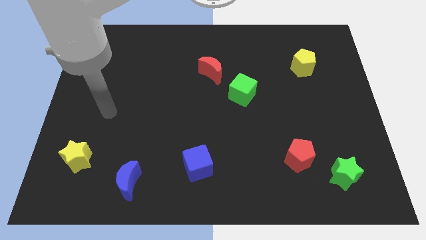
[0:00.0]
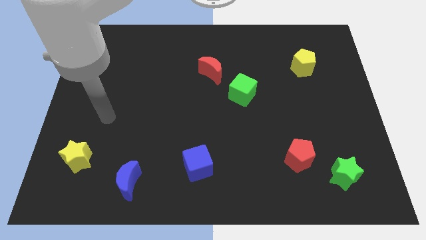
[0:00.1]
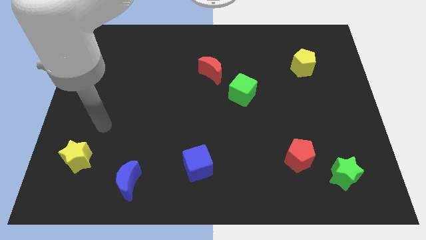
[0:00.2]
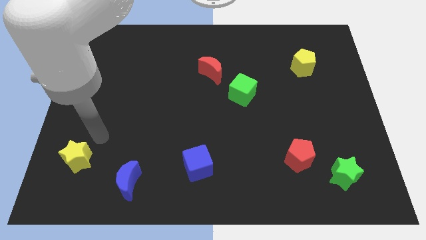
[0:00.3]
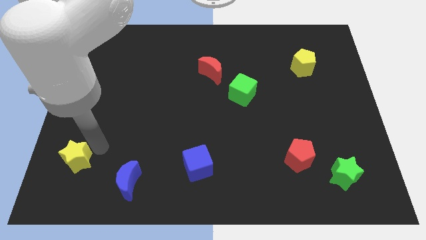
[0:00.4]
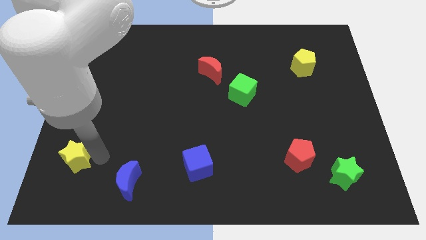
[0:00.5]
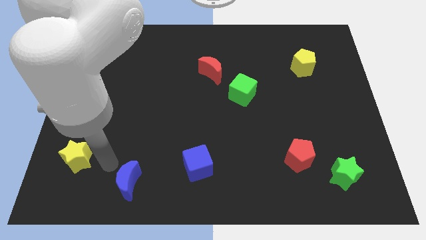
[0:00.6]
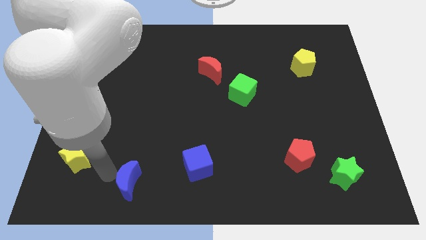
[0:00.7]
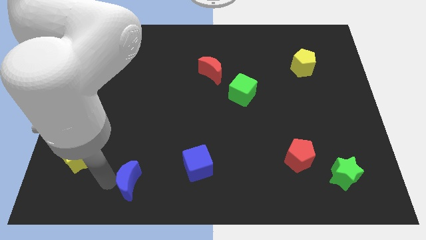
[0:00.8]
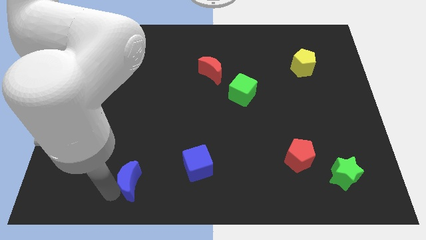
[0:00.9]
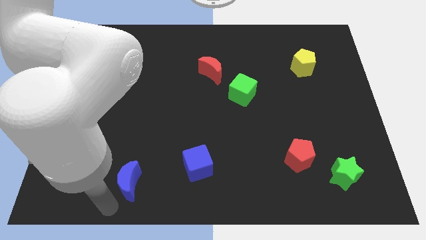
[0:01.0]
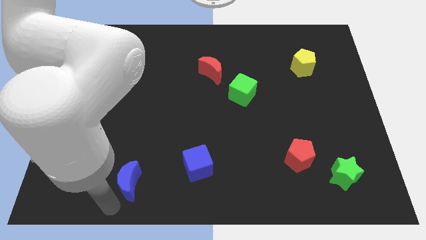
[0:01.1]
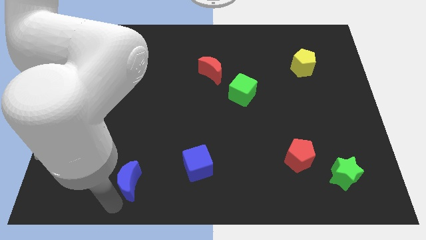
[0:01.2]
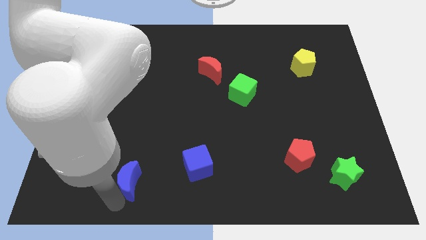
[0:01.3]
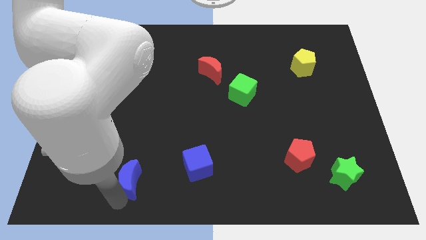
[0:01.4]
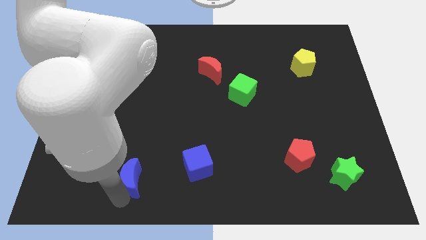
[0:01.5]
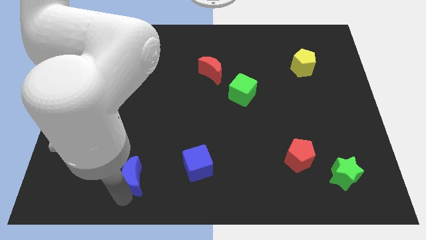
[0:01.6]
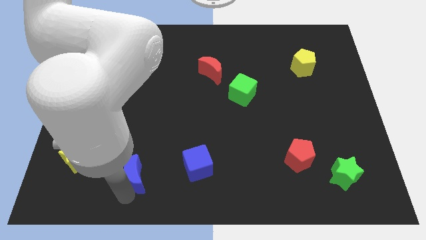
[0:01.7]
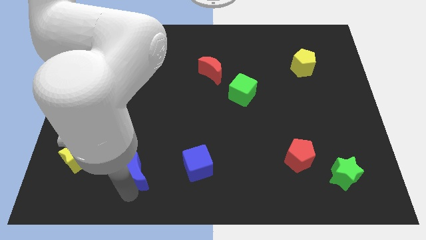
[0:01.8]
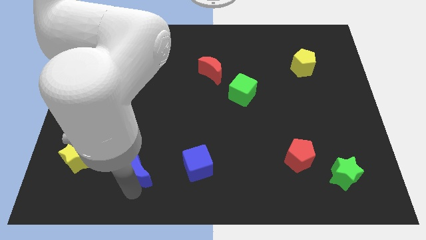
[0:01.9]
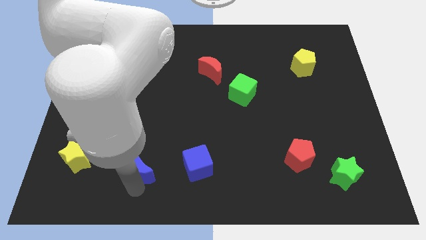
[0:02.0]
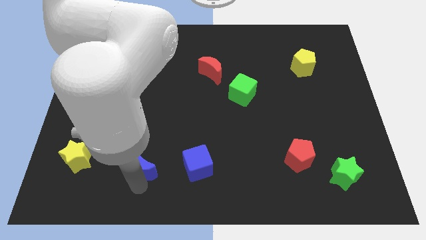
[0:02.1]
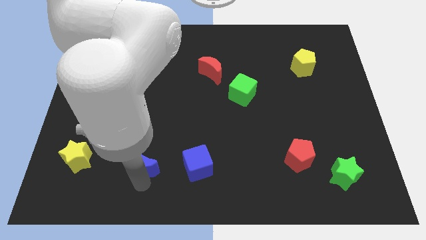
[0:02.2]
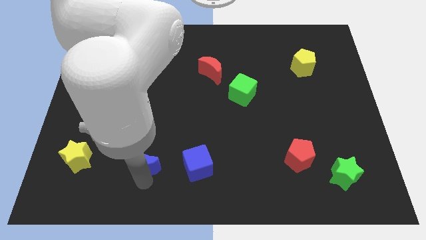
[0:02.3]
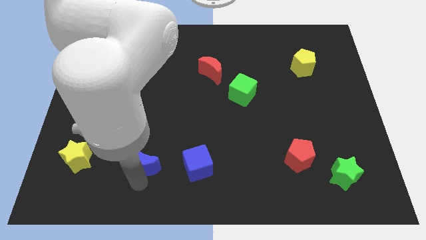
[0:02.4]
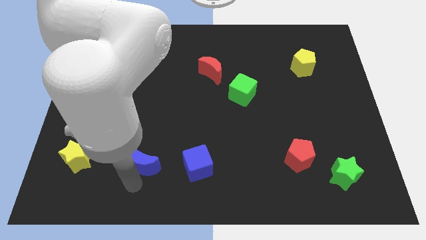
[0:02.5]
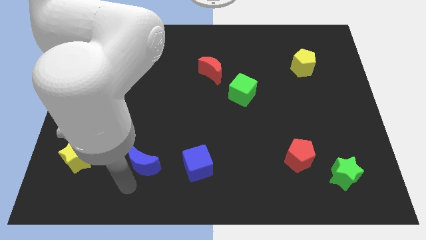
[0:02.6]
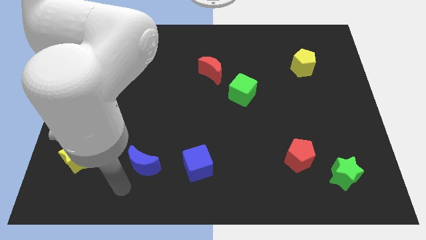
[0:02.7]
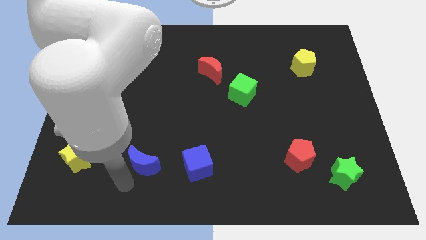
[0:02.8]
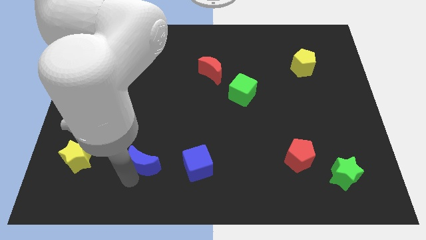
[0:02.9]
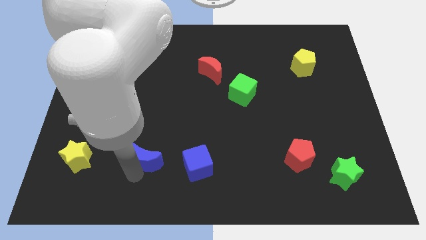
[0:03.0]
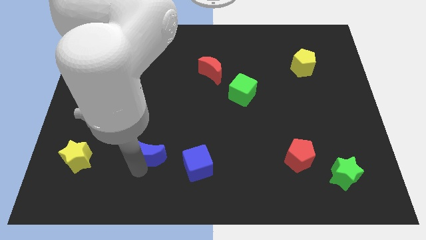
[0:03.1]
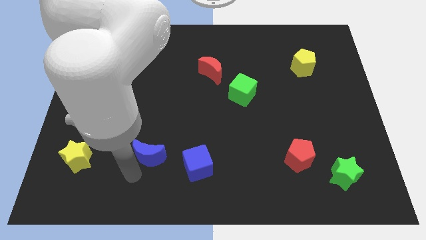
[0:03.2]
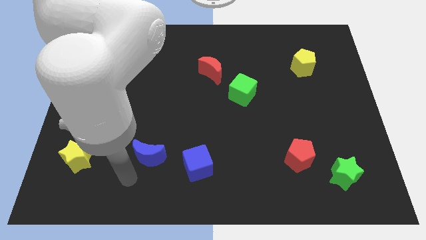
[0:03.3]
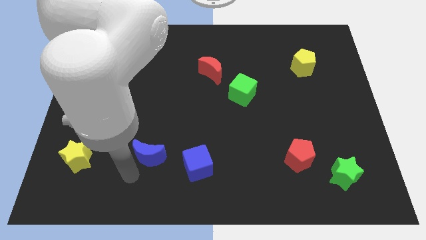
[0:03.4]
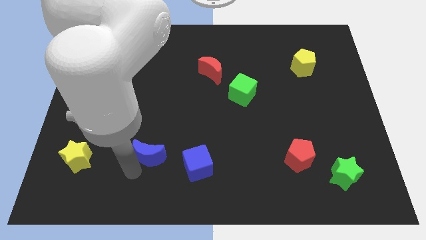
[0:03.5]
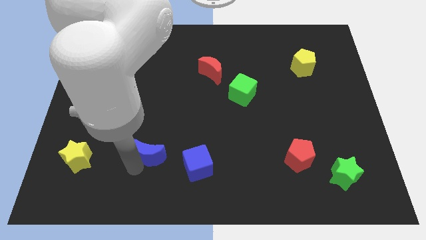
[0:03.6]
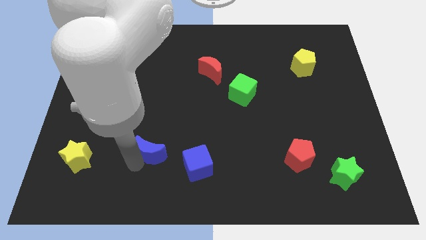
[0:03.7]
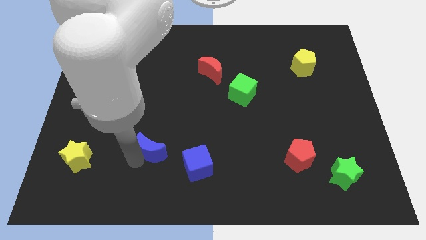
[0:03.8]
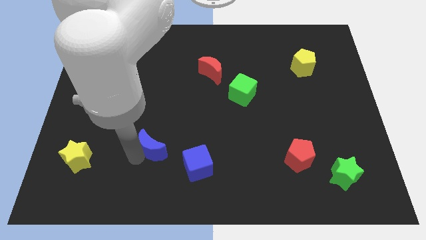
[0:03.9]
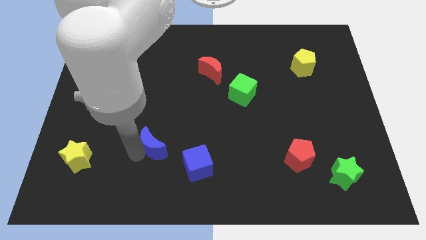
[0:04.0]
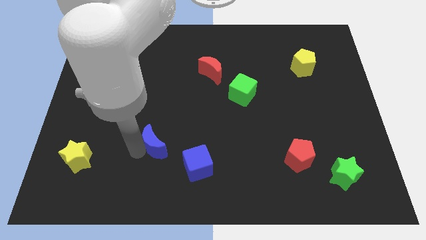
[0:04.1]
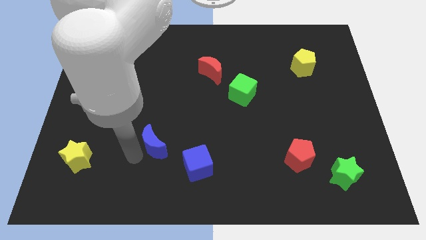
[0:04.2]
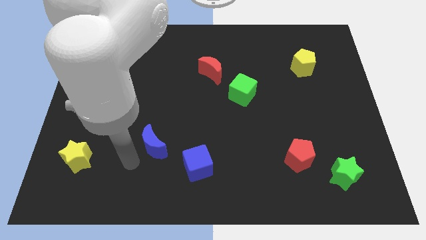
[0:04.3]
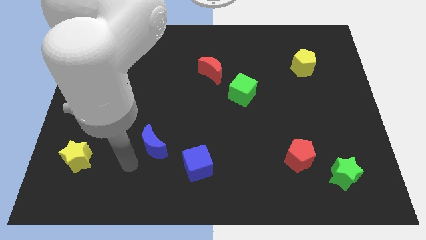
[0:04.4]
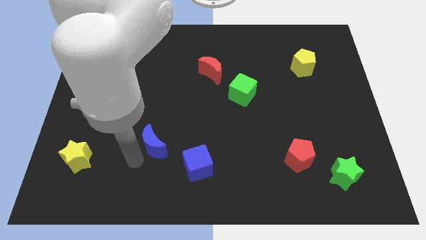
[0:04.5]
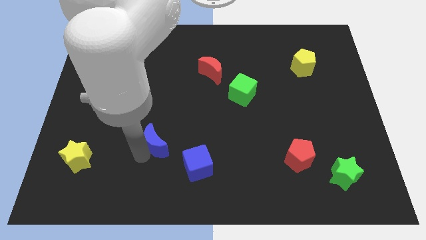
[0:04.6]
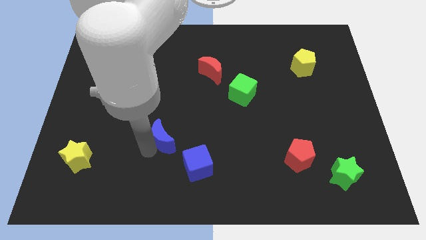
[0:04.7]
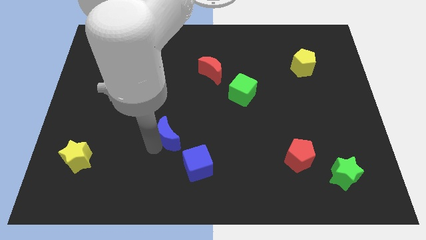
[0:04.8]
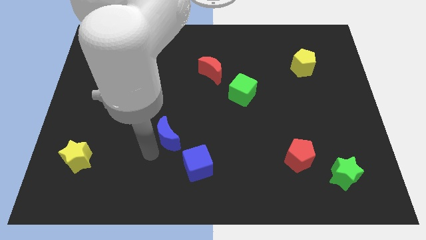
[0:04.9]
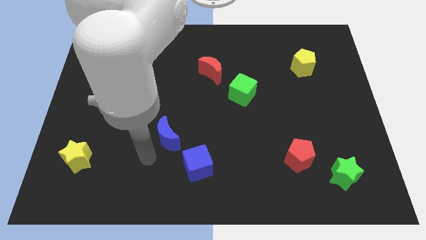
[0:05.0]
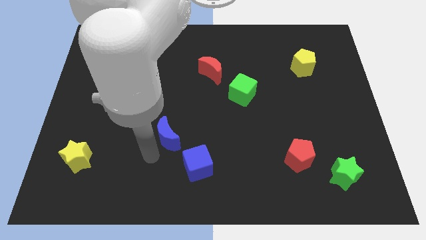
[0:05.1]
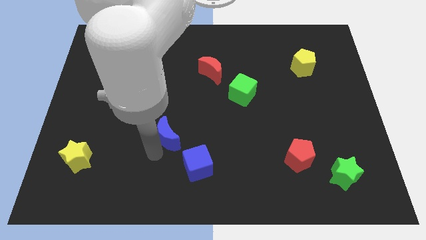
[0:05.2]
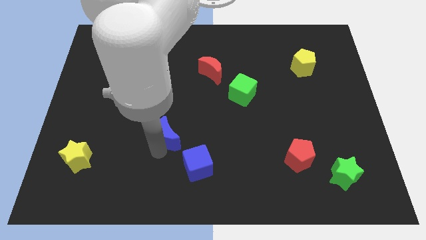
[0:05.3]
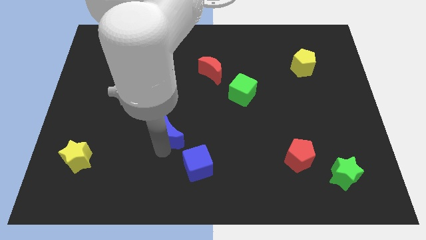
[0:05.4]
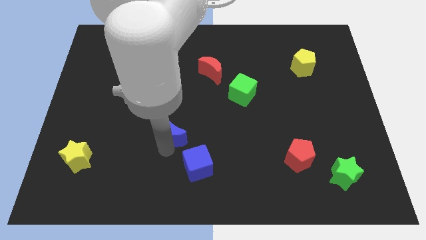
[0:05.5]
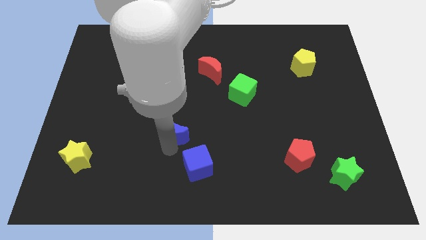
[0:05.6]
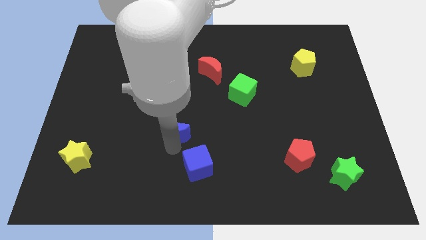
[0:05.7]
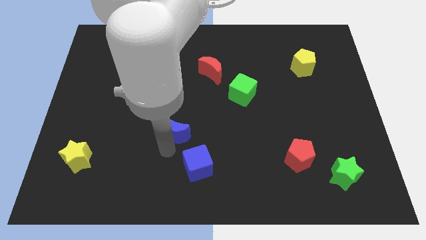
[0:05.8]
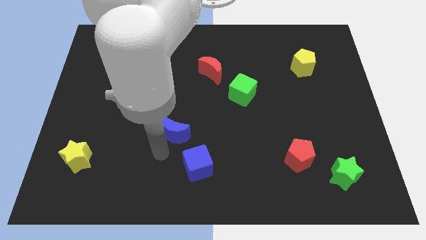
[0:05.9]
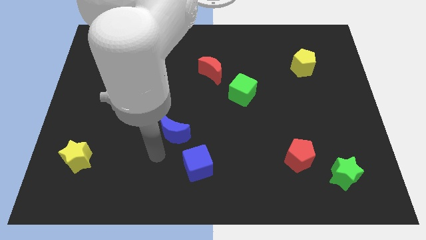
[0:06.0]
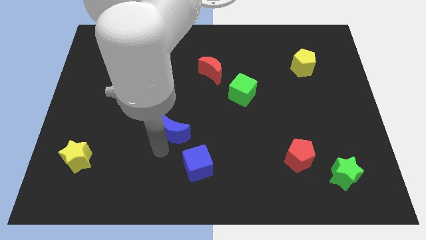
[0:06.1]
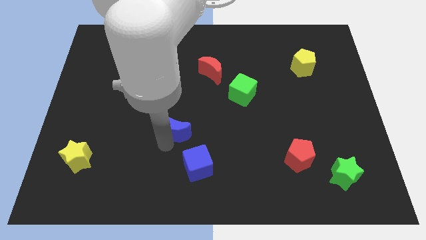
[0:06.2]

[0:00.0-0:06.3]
push the blue moon to the middle of the board
